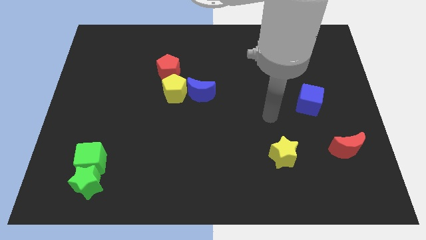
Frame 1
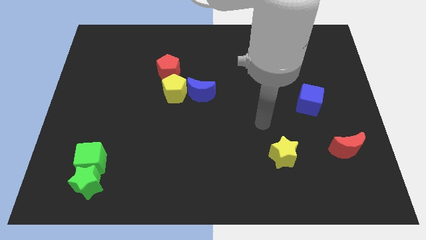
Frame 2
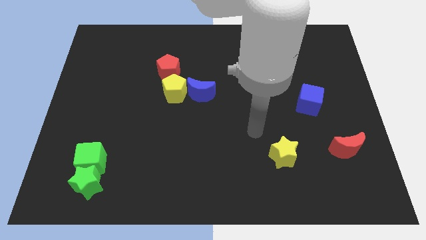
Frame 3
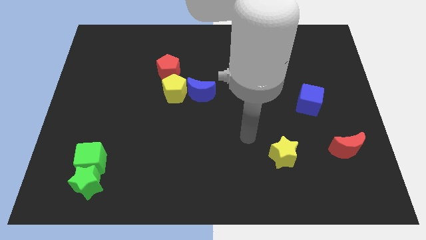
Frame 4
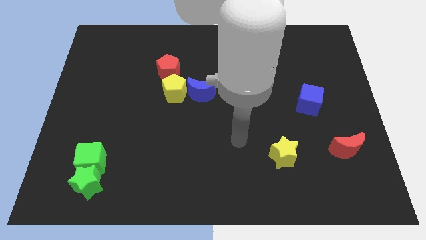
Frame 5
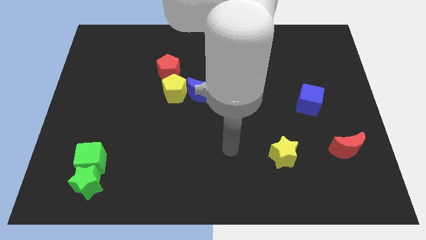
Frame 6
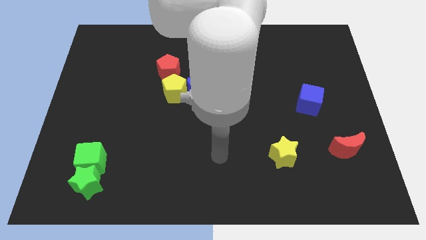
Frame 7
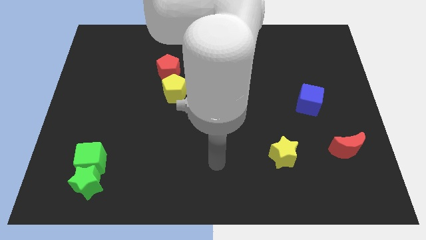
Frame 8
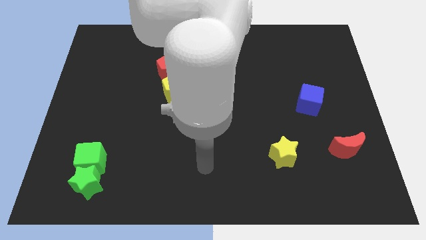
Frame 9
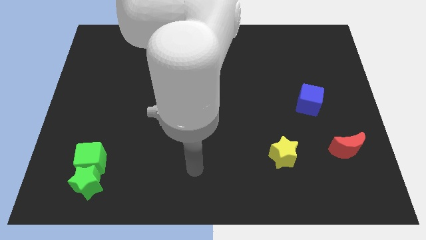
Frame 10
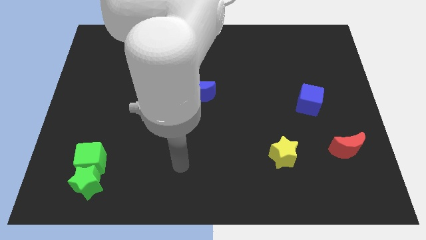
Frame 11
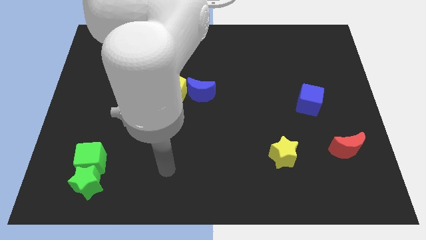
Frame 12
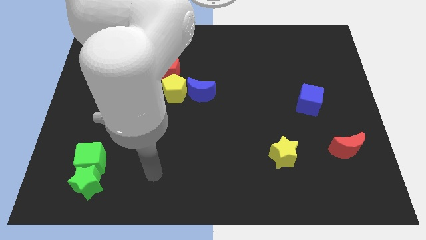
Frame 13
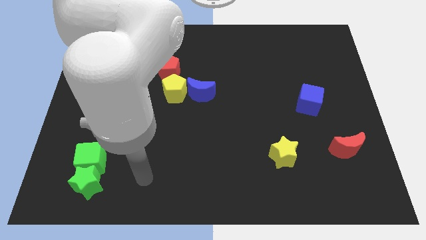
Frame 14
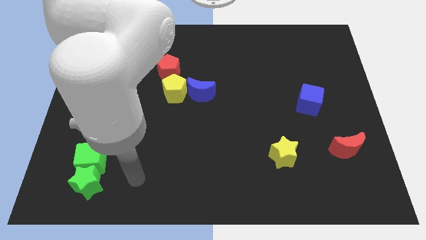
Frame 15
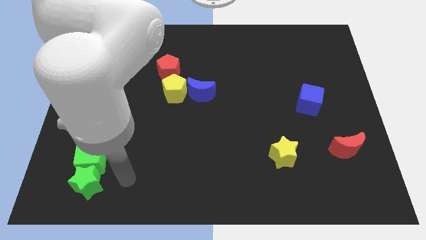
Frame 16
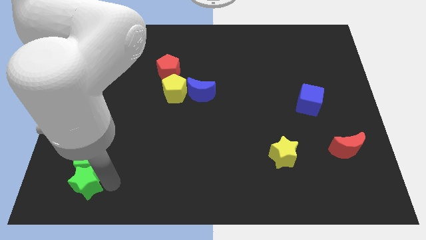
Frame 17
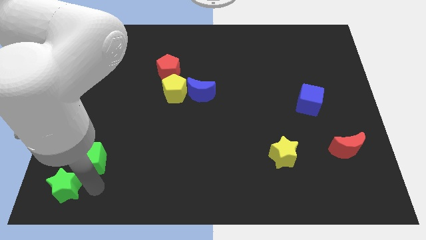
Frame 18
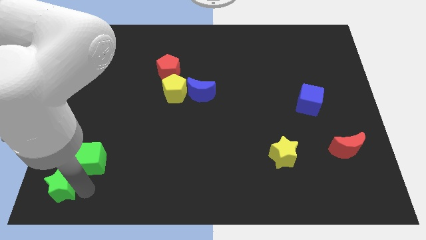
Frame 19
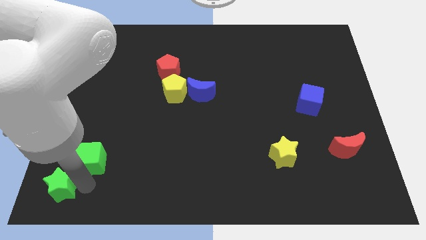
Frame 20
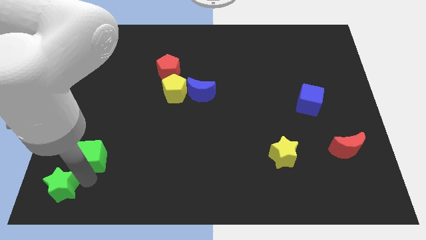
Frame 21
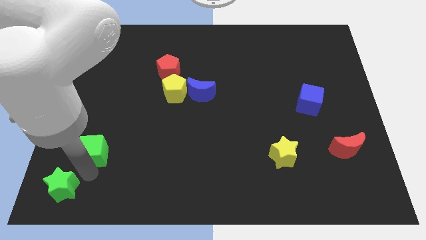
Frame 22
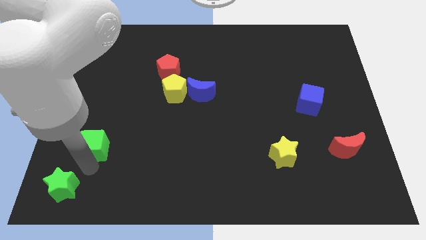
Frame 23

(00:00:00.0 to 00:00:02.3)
move the green cube away from the green star

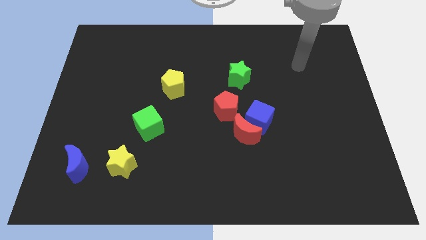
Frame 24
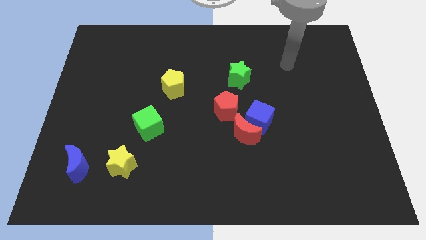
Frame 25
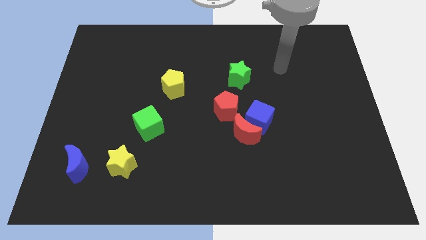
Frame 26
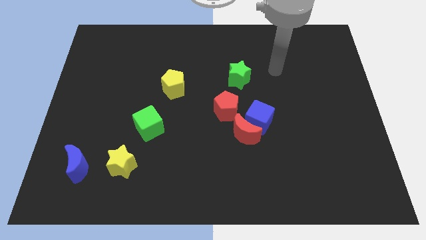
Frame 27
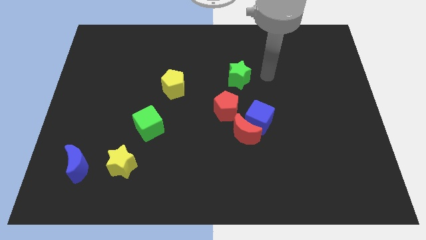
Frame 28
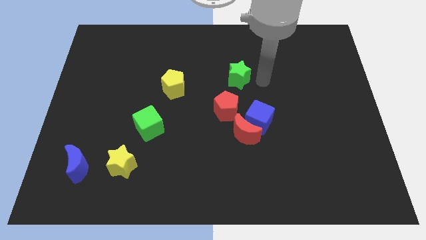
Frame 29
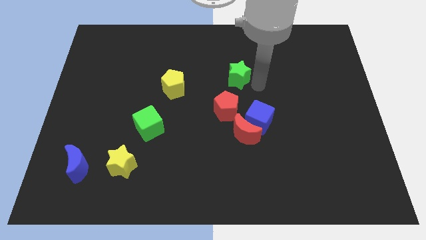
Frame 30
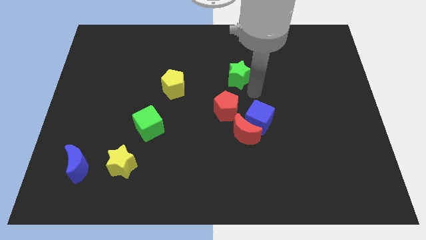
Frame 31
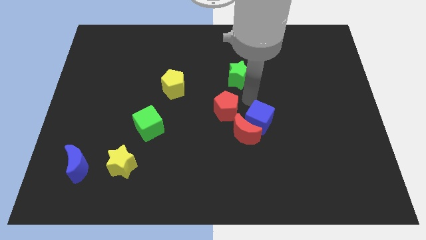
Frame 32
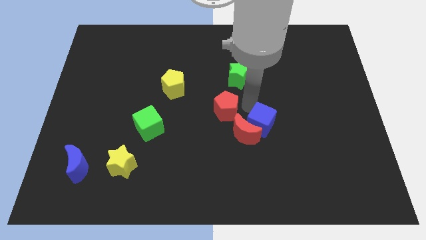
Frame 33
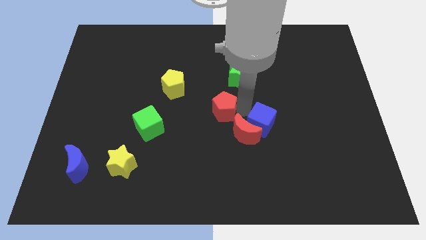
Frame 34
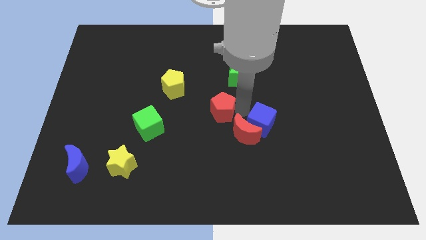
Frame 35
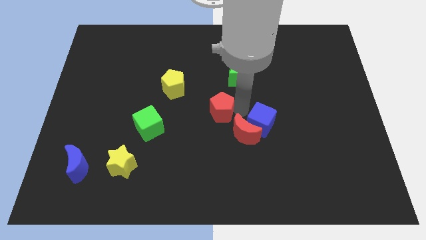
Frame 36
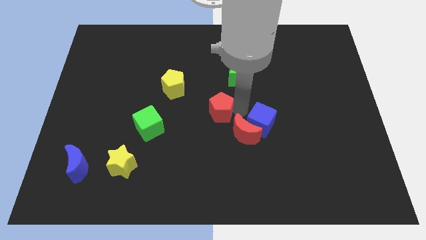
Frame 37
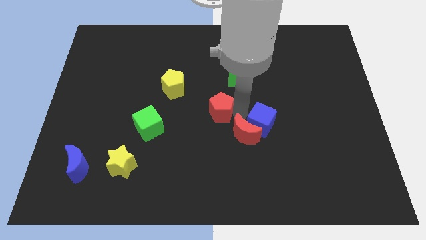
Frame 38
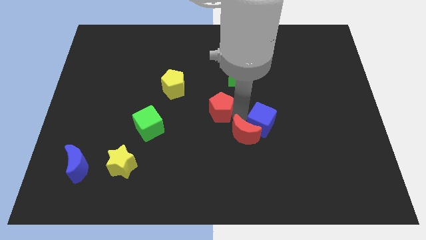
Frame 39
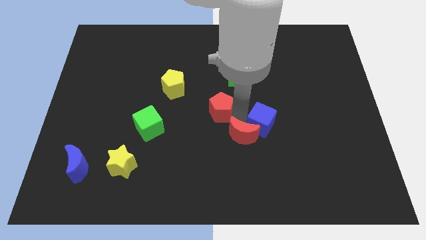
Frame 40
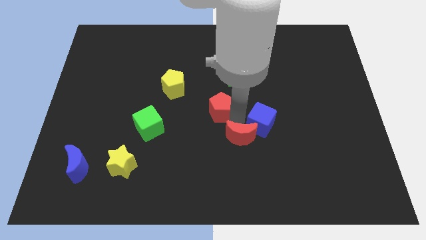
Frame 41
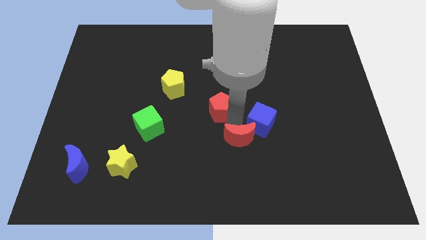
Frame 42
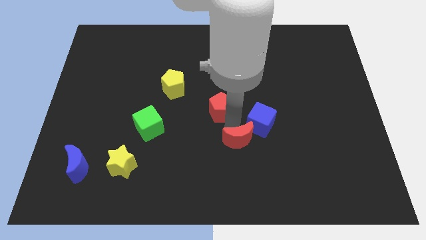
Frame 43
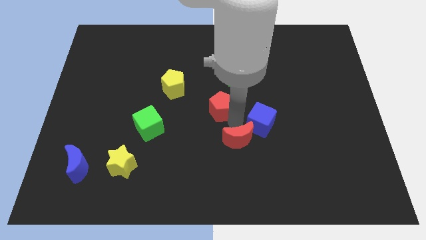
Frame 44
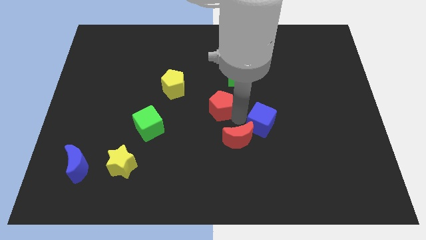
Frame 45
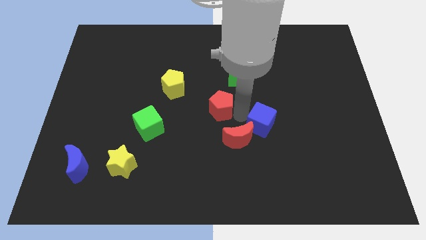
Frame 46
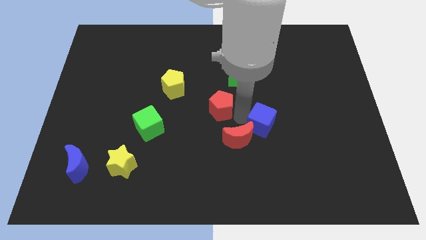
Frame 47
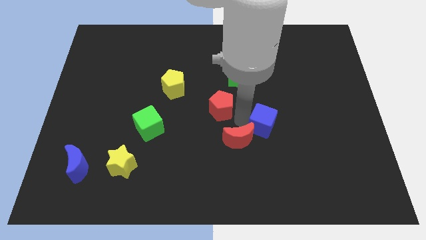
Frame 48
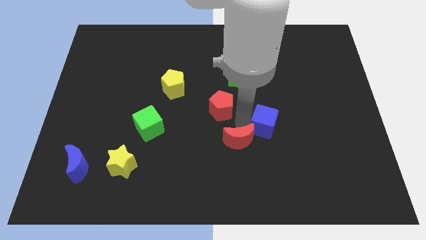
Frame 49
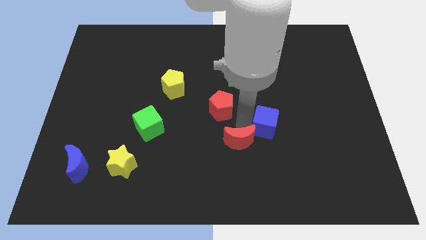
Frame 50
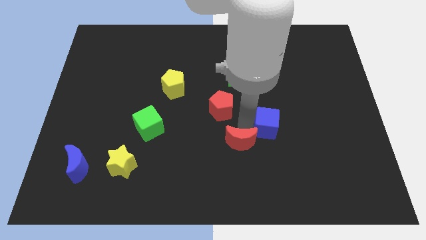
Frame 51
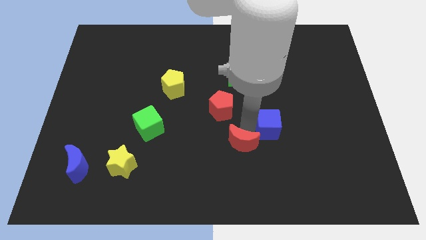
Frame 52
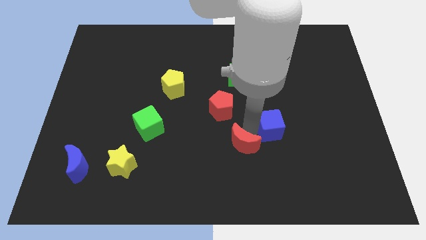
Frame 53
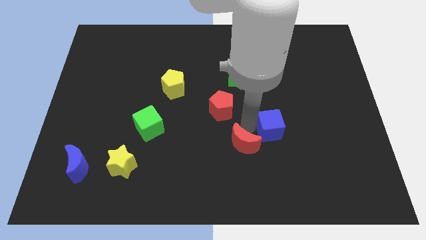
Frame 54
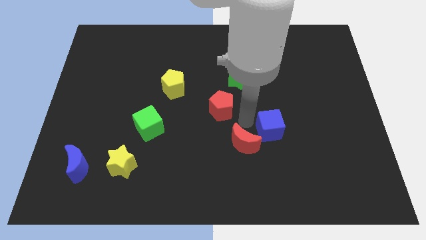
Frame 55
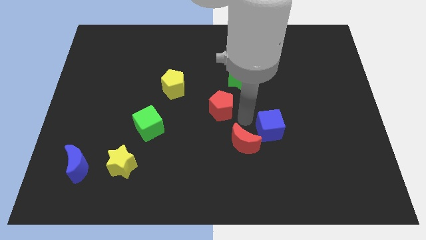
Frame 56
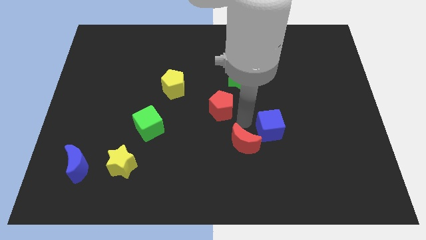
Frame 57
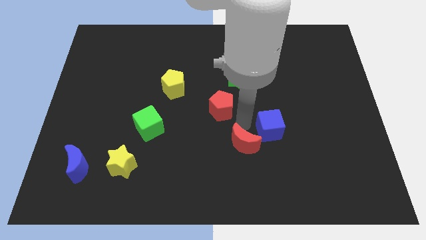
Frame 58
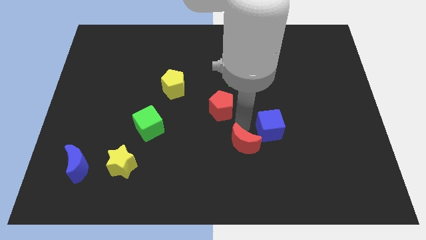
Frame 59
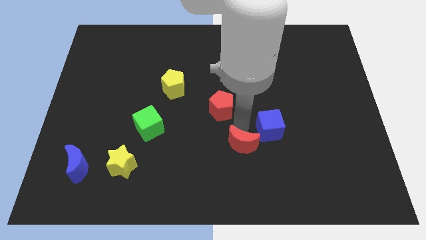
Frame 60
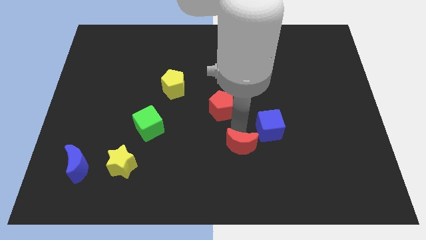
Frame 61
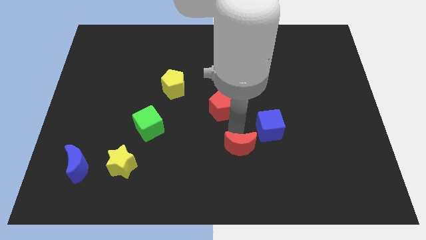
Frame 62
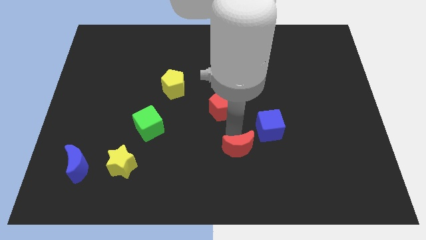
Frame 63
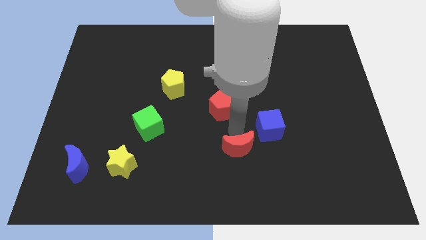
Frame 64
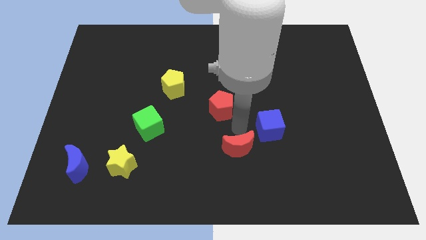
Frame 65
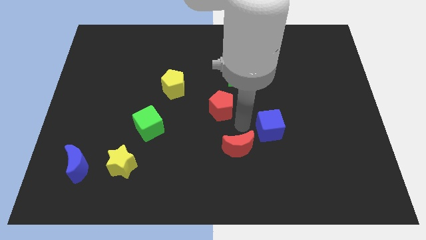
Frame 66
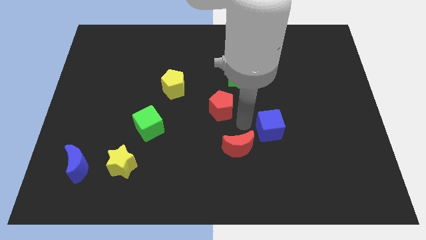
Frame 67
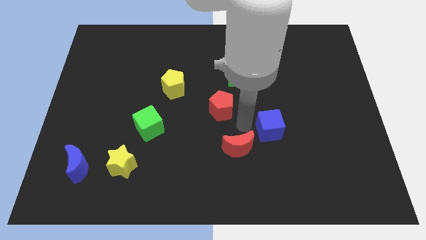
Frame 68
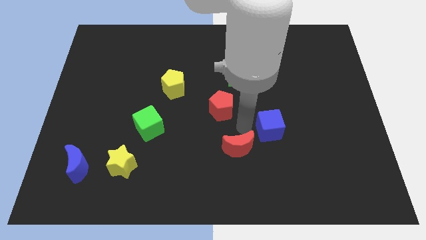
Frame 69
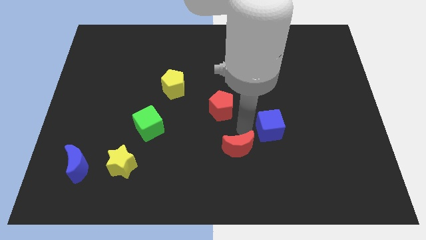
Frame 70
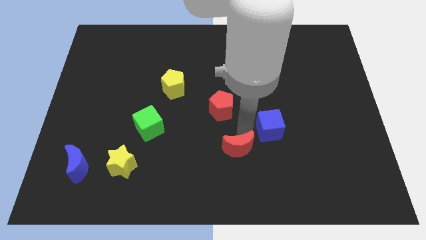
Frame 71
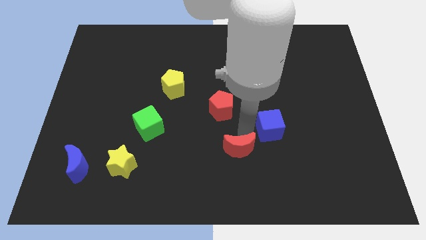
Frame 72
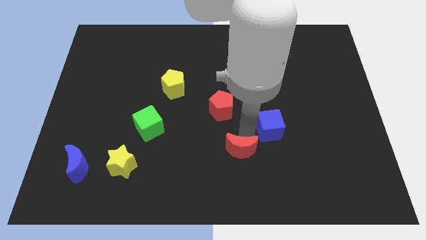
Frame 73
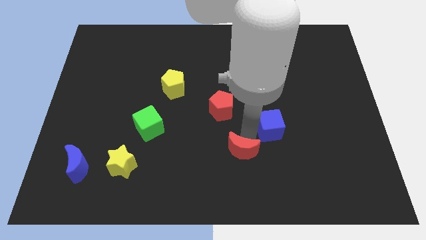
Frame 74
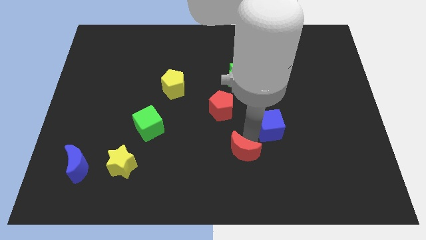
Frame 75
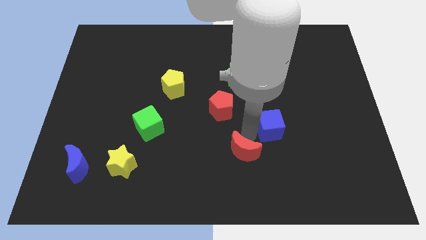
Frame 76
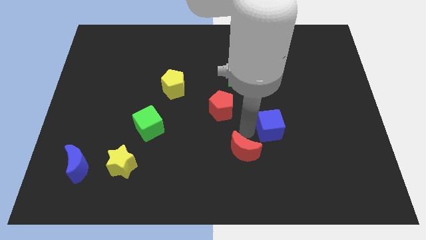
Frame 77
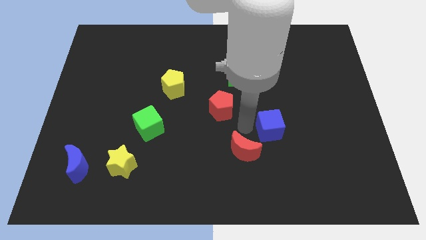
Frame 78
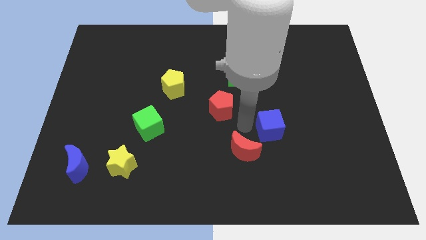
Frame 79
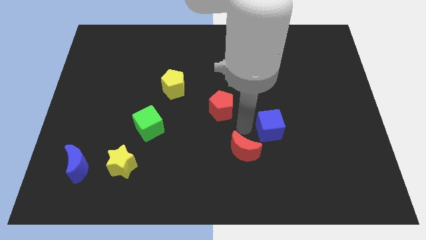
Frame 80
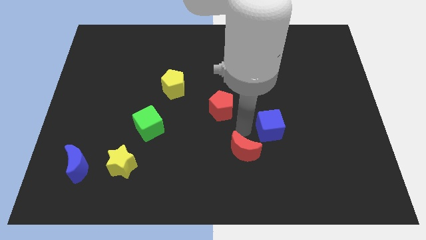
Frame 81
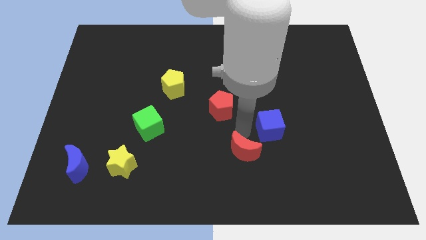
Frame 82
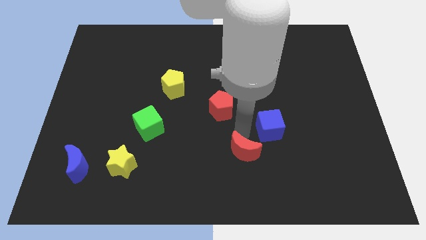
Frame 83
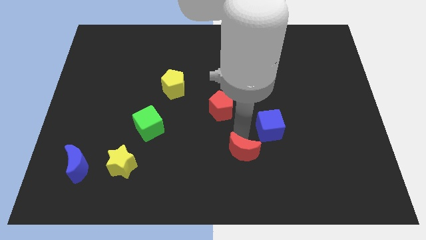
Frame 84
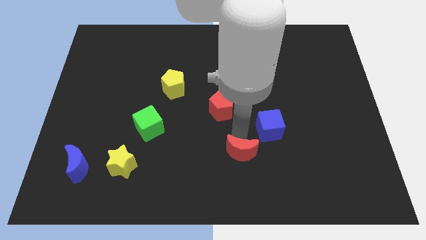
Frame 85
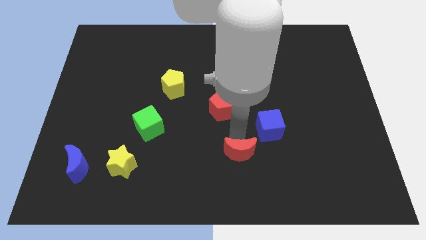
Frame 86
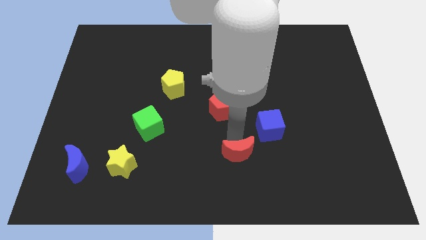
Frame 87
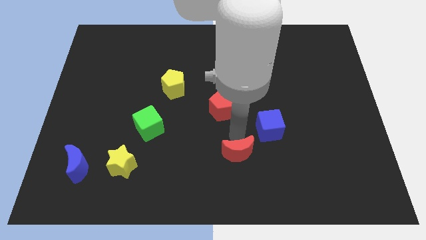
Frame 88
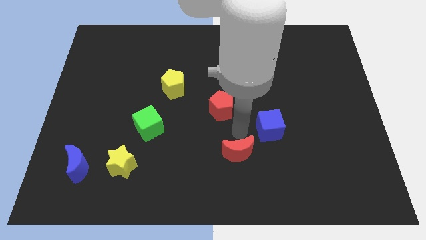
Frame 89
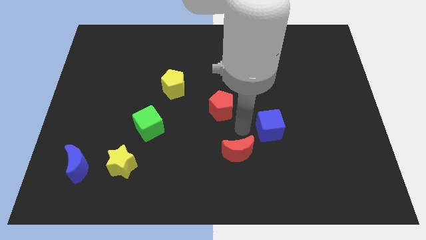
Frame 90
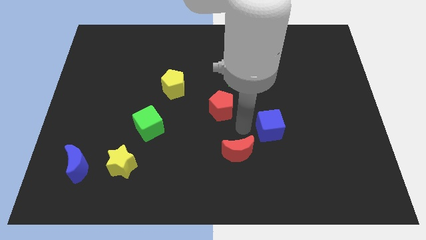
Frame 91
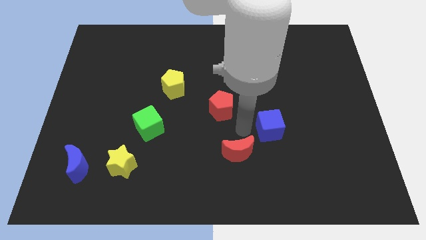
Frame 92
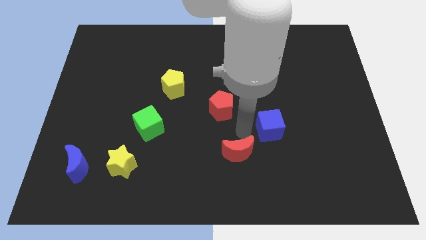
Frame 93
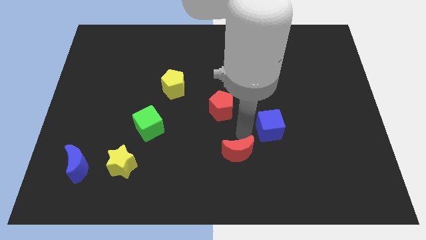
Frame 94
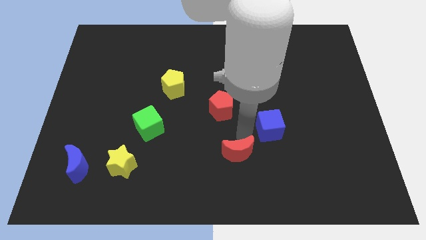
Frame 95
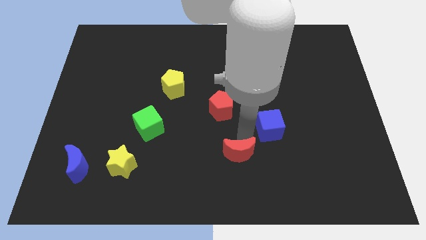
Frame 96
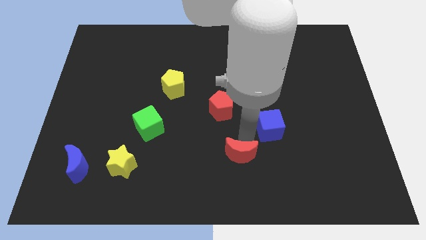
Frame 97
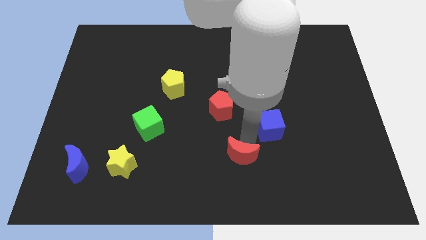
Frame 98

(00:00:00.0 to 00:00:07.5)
move the red moon away from the blue cube and red pentagon
